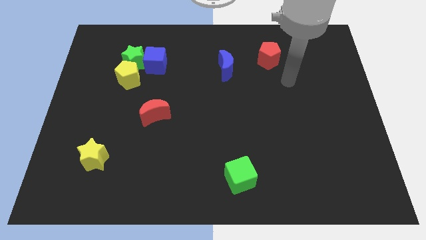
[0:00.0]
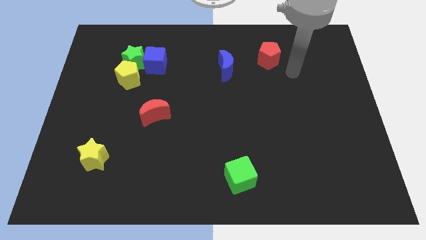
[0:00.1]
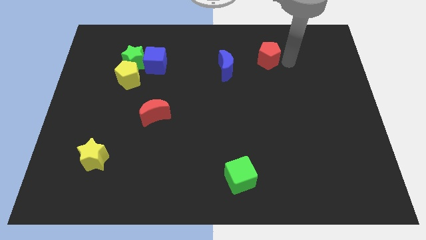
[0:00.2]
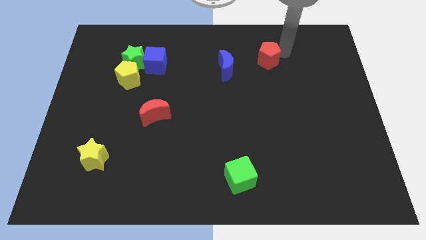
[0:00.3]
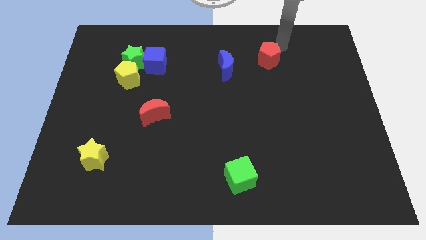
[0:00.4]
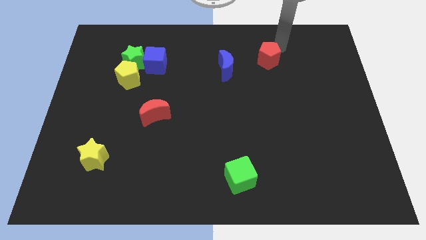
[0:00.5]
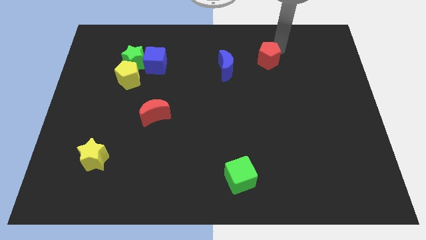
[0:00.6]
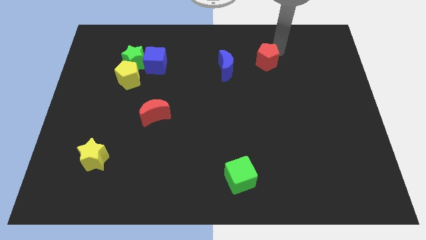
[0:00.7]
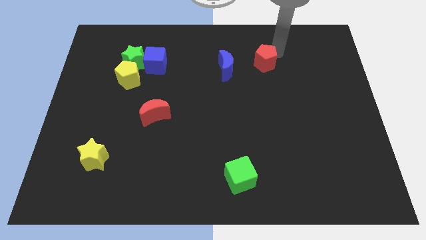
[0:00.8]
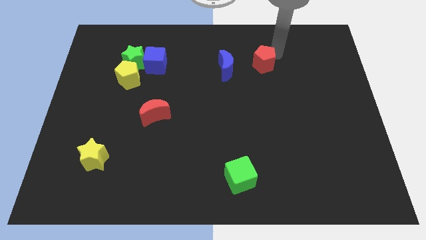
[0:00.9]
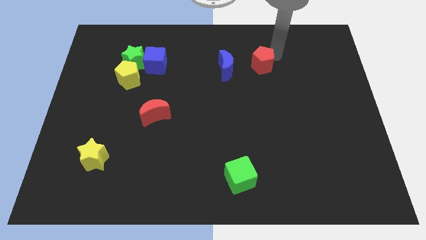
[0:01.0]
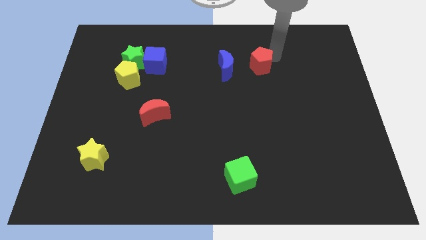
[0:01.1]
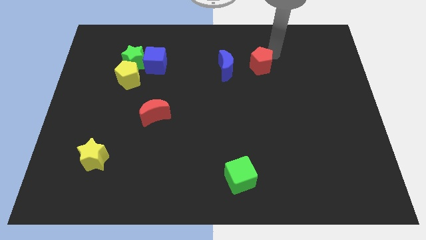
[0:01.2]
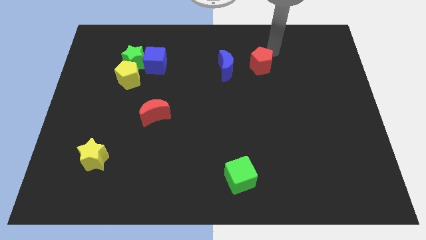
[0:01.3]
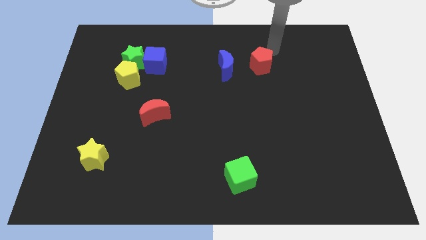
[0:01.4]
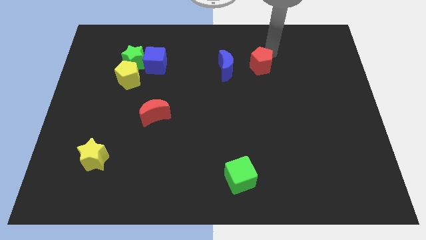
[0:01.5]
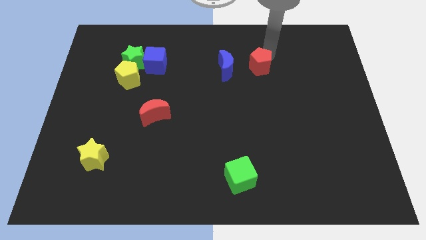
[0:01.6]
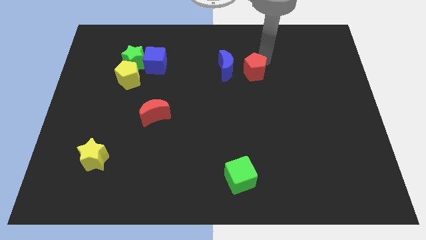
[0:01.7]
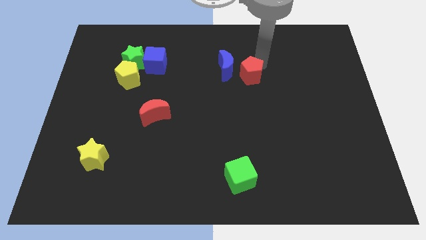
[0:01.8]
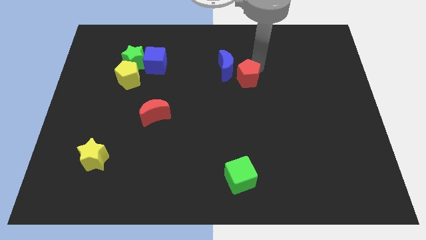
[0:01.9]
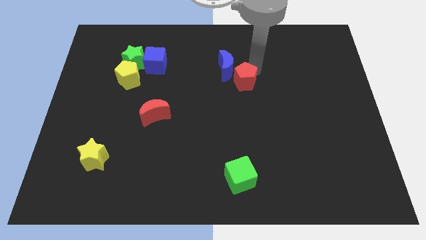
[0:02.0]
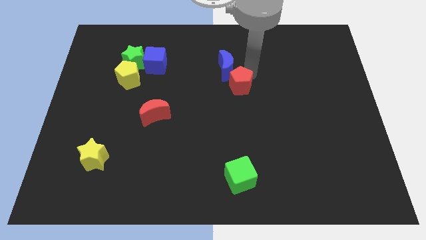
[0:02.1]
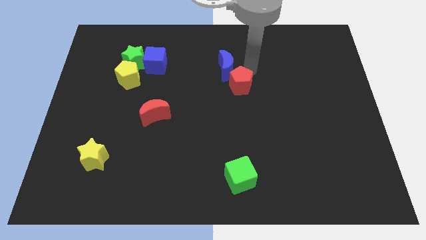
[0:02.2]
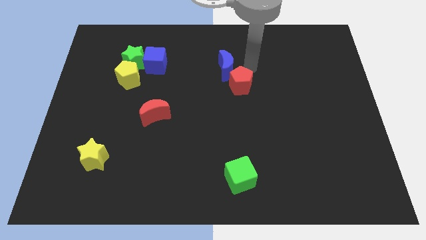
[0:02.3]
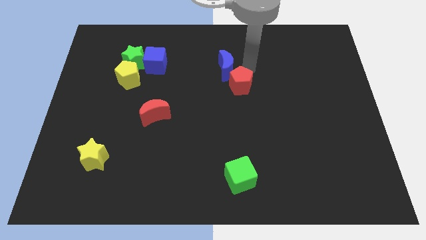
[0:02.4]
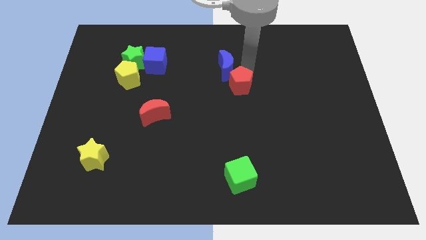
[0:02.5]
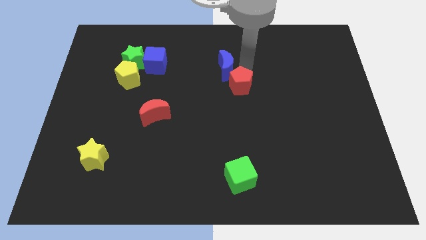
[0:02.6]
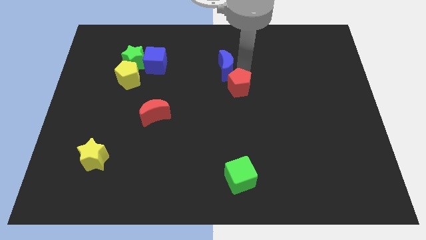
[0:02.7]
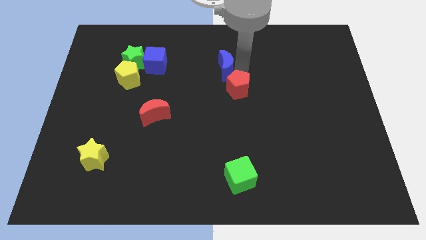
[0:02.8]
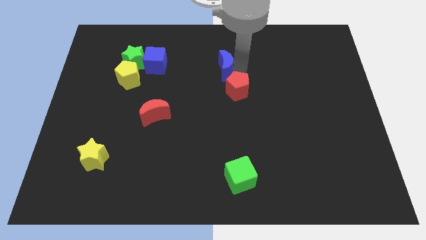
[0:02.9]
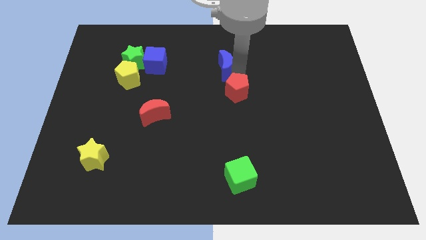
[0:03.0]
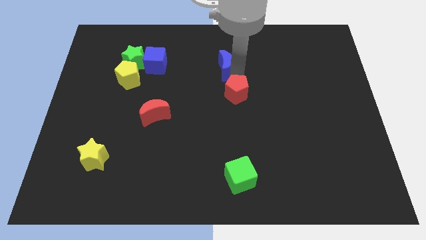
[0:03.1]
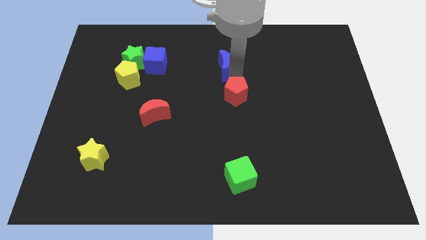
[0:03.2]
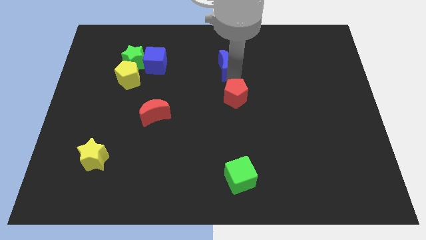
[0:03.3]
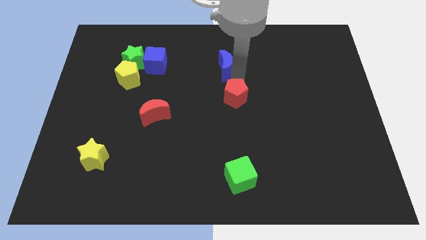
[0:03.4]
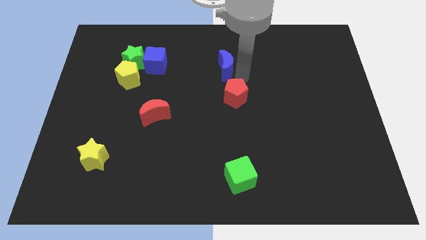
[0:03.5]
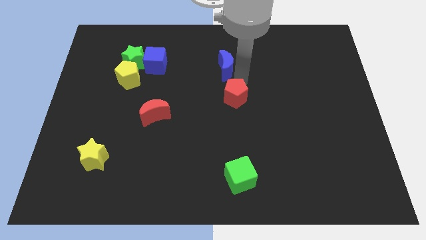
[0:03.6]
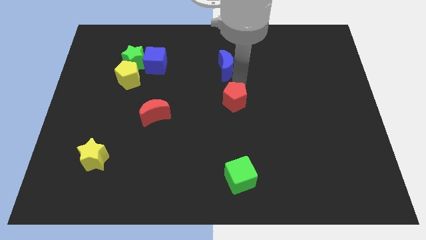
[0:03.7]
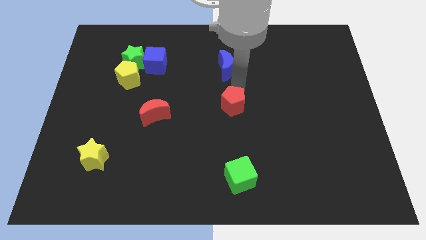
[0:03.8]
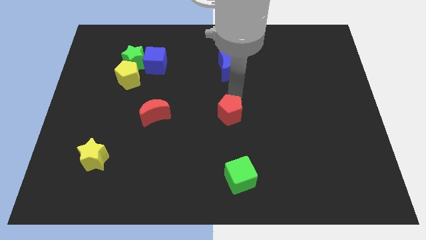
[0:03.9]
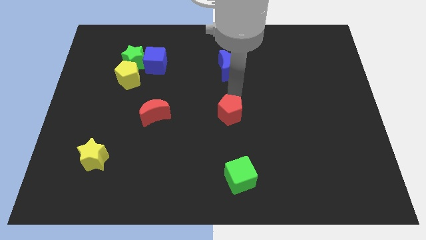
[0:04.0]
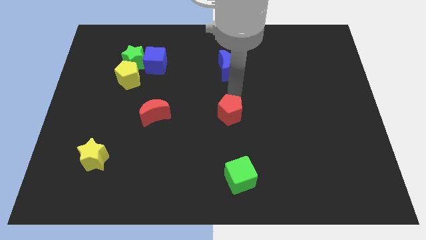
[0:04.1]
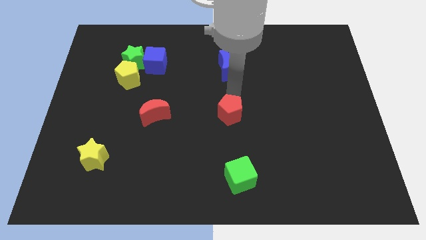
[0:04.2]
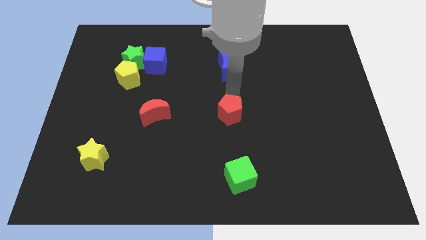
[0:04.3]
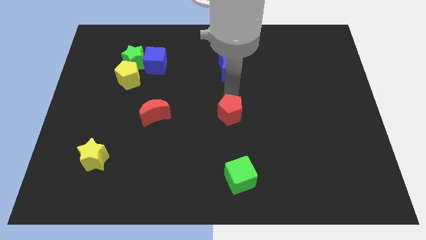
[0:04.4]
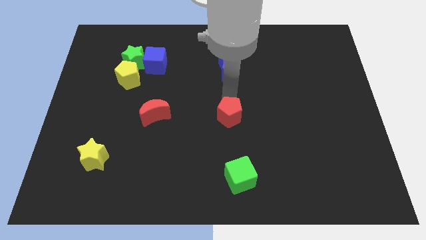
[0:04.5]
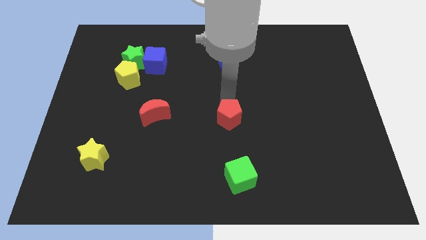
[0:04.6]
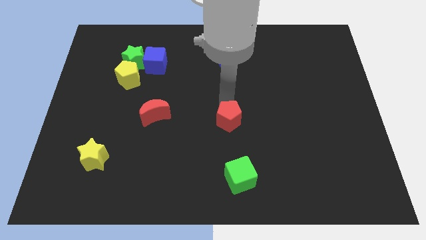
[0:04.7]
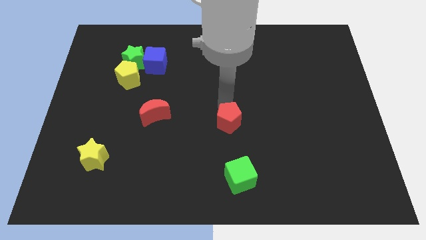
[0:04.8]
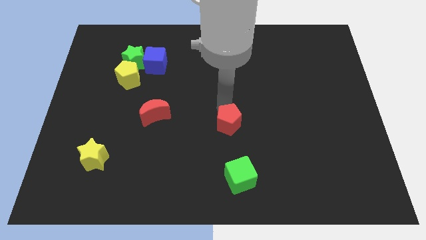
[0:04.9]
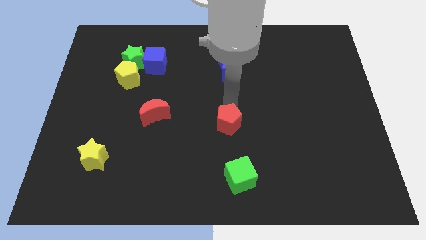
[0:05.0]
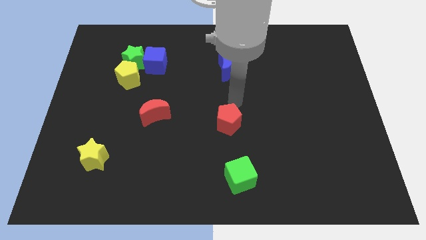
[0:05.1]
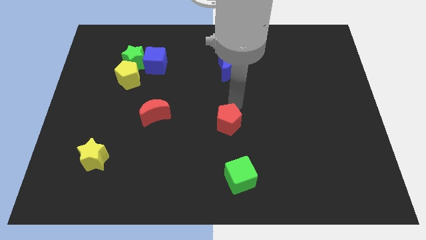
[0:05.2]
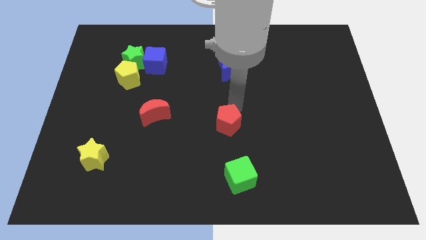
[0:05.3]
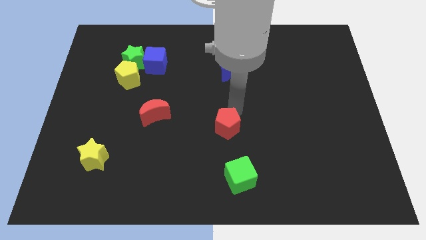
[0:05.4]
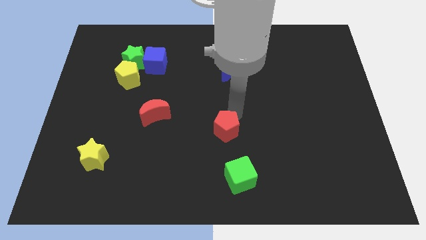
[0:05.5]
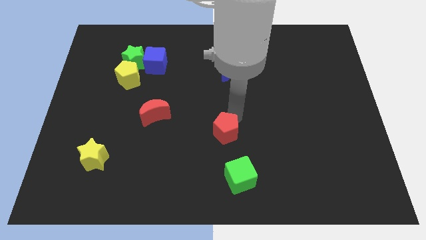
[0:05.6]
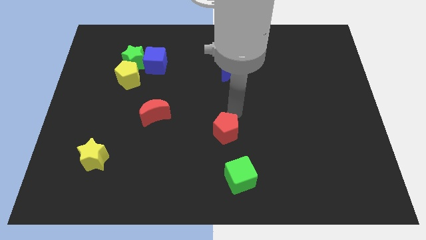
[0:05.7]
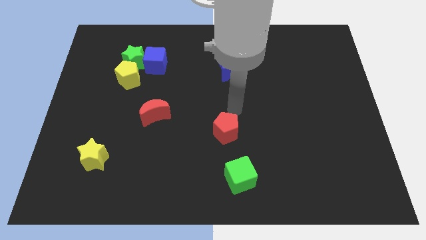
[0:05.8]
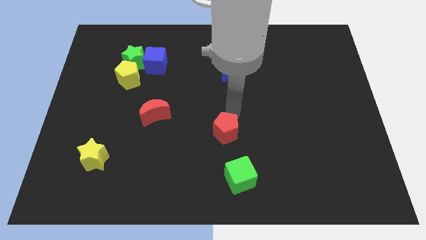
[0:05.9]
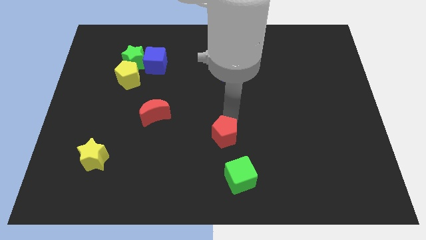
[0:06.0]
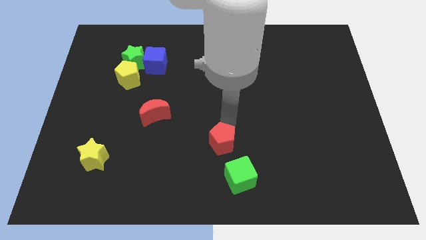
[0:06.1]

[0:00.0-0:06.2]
put the red pentagon to the top left of the green cube

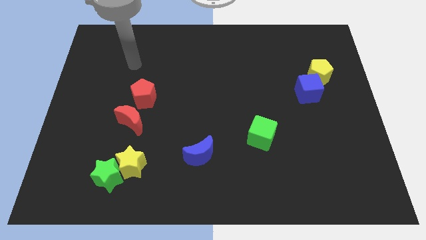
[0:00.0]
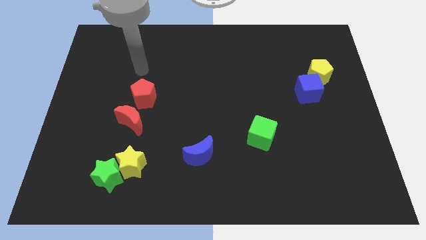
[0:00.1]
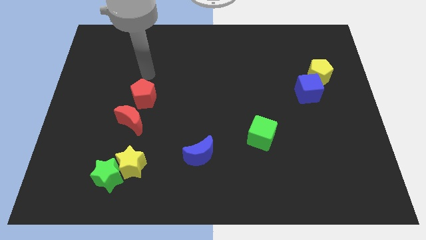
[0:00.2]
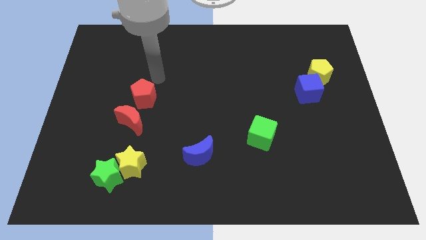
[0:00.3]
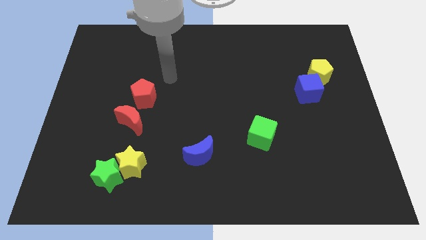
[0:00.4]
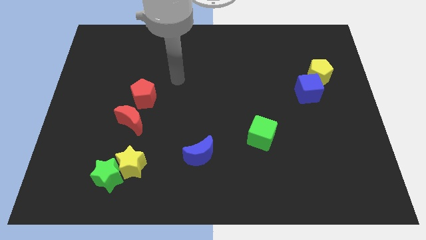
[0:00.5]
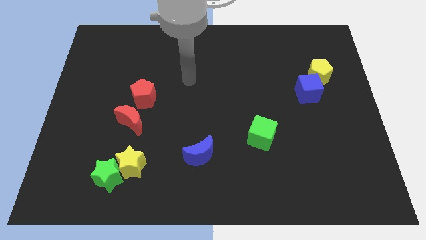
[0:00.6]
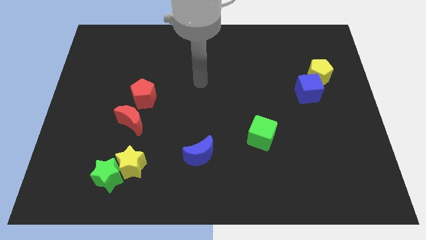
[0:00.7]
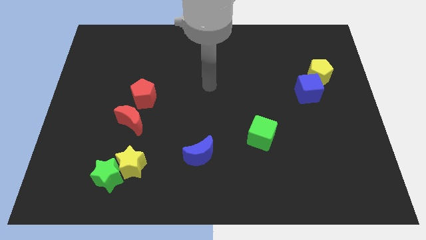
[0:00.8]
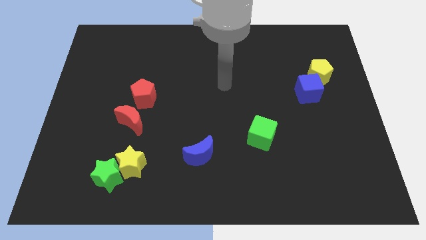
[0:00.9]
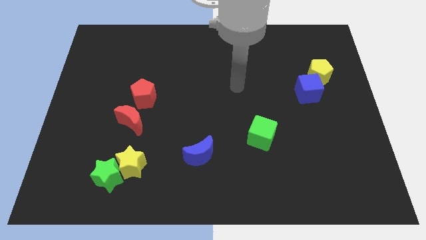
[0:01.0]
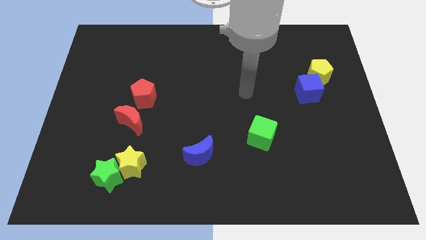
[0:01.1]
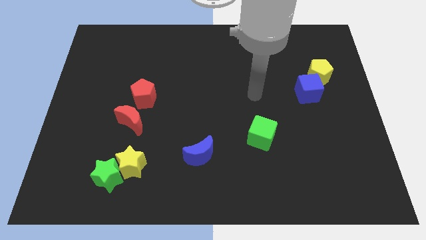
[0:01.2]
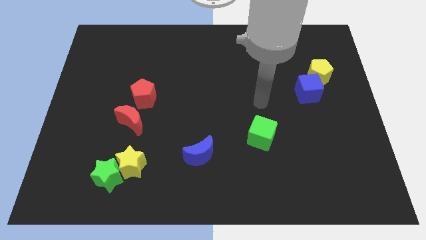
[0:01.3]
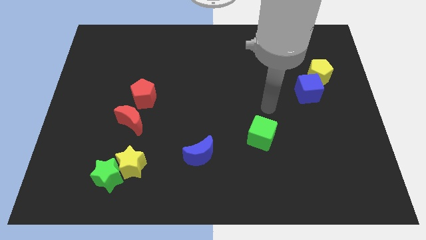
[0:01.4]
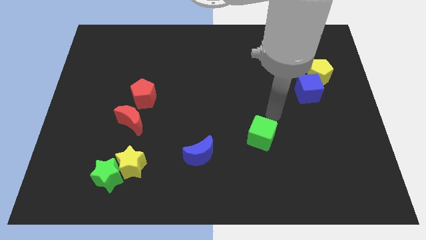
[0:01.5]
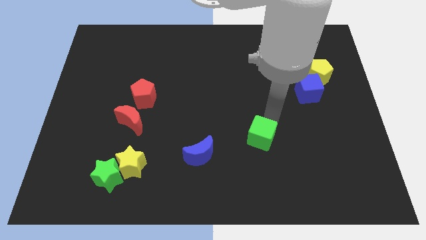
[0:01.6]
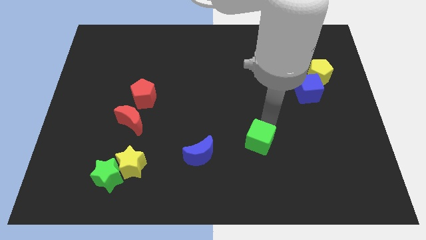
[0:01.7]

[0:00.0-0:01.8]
move the green cube right of the blue moon
